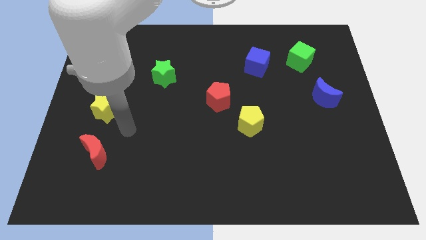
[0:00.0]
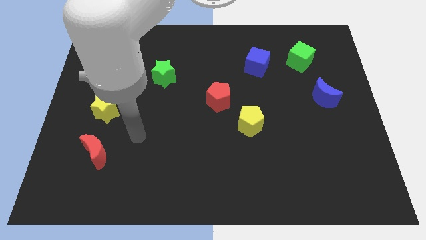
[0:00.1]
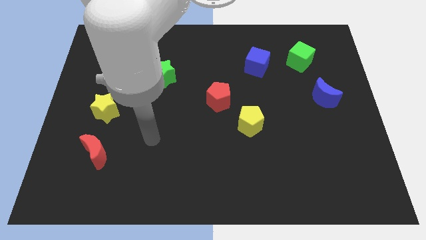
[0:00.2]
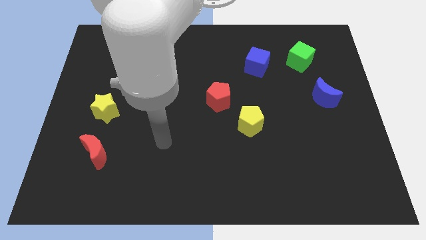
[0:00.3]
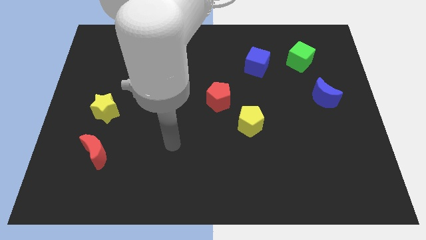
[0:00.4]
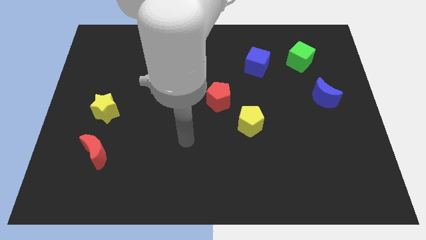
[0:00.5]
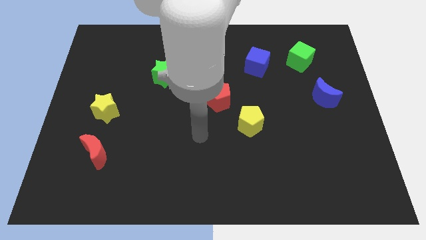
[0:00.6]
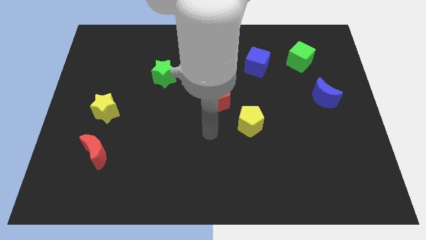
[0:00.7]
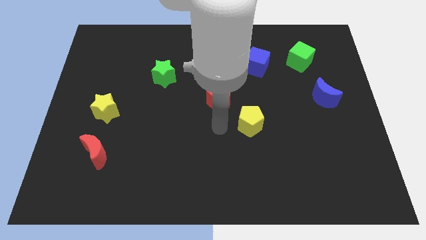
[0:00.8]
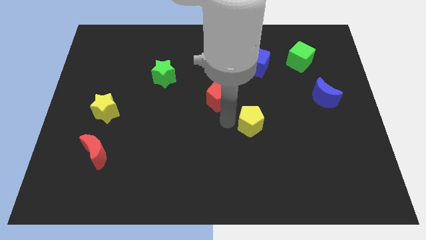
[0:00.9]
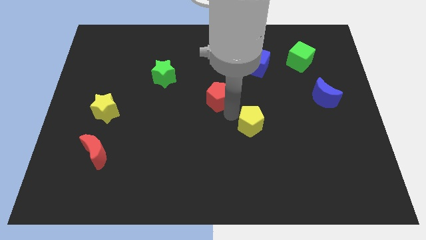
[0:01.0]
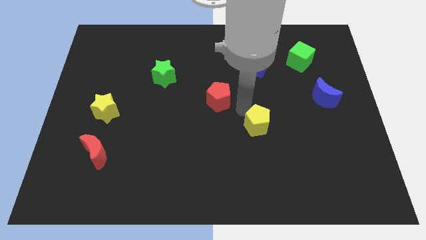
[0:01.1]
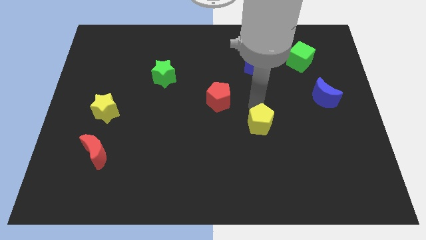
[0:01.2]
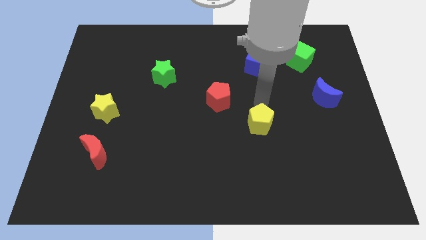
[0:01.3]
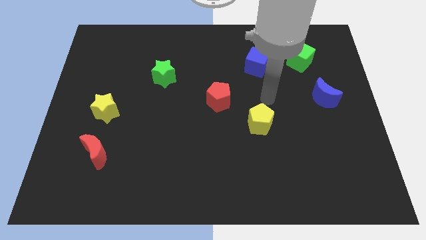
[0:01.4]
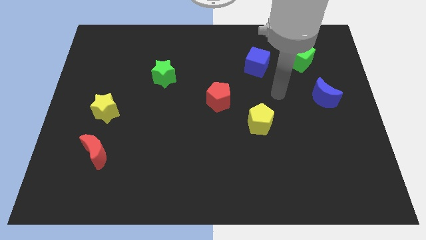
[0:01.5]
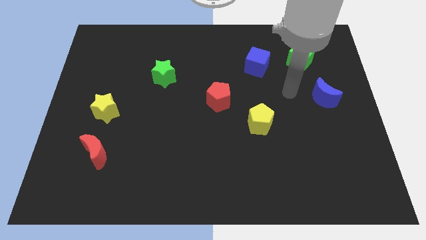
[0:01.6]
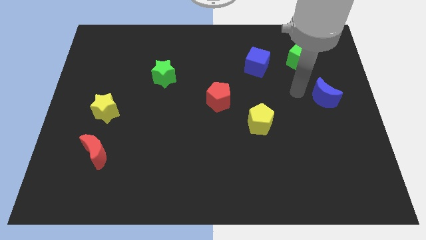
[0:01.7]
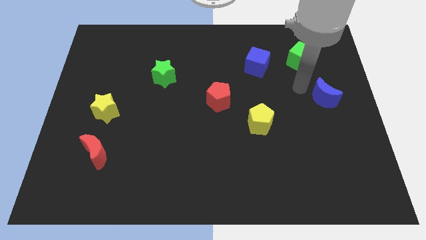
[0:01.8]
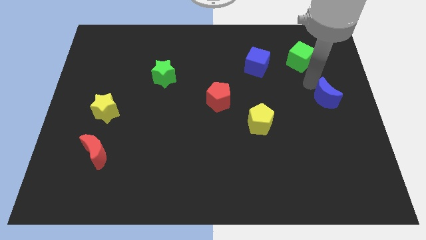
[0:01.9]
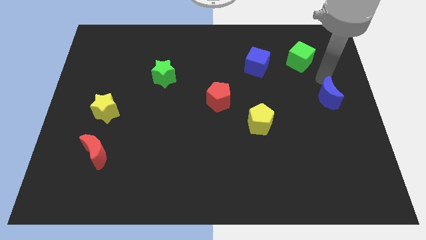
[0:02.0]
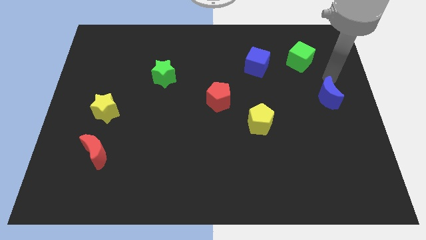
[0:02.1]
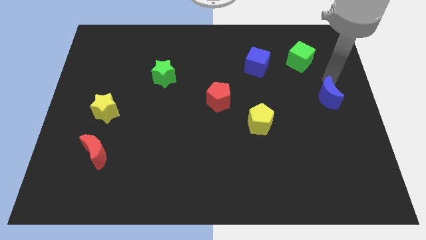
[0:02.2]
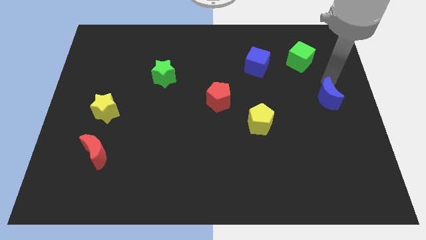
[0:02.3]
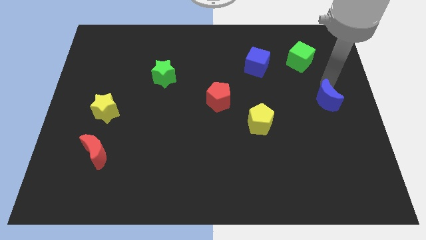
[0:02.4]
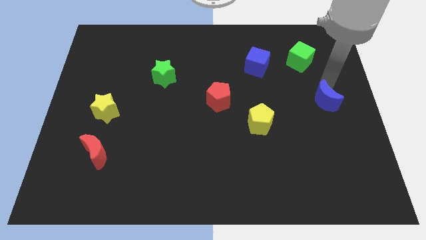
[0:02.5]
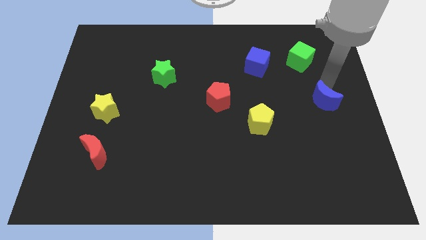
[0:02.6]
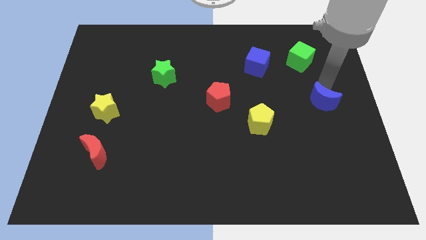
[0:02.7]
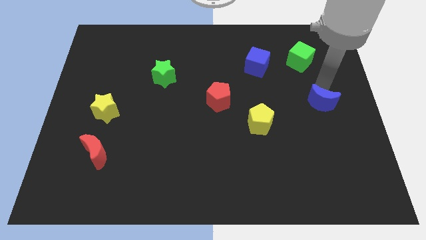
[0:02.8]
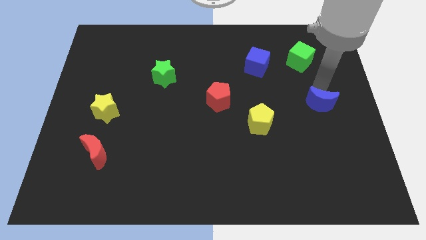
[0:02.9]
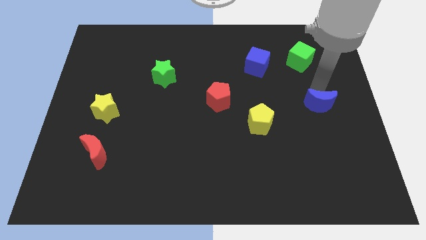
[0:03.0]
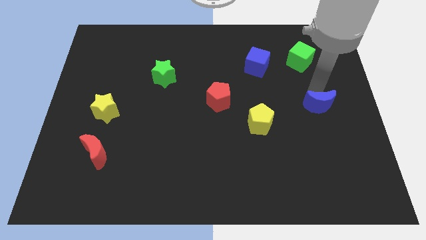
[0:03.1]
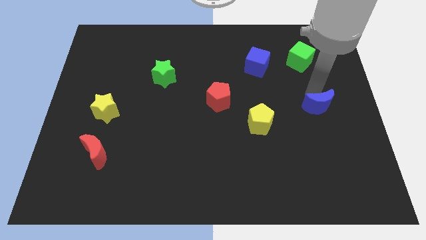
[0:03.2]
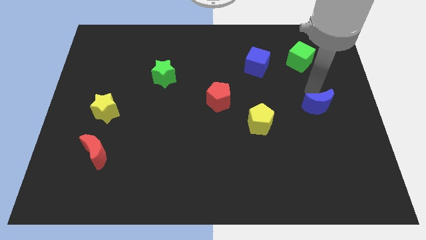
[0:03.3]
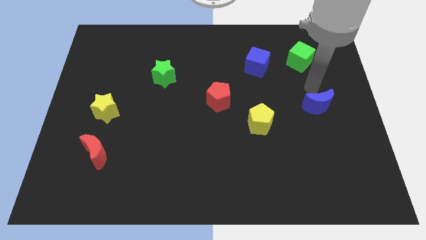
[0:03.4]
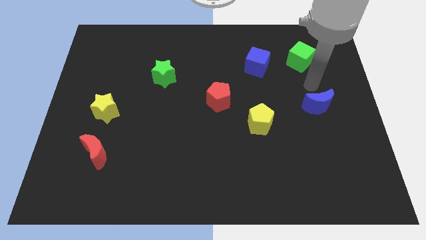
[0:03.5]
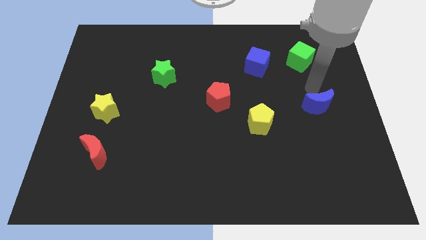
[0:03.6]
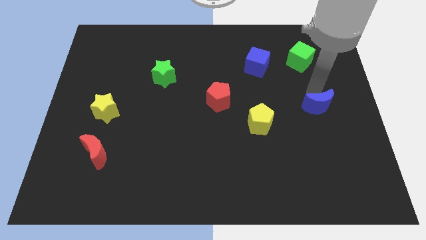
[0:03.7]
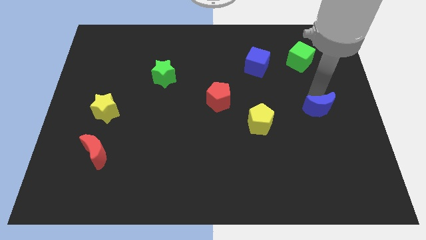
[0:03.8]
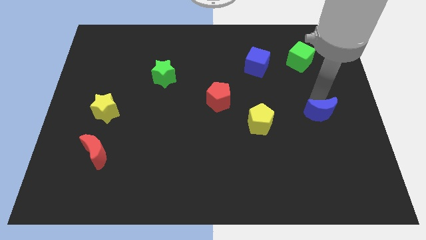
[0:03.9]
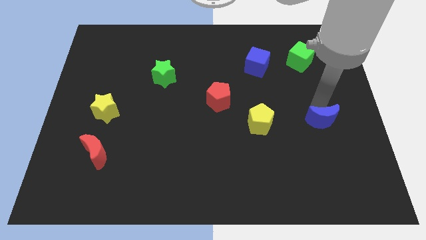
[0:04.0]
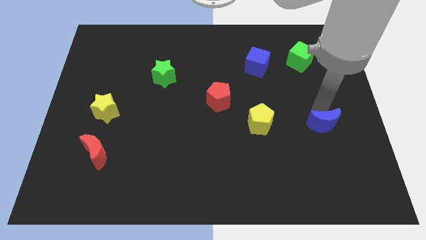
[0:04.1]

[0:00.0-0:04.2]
move the blue moon a little downwards

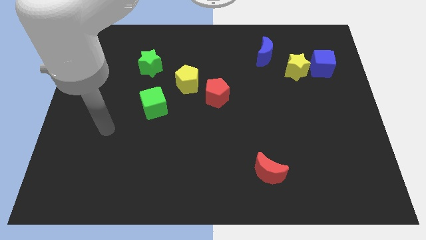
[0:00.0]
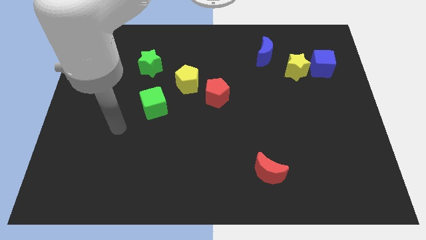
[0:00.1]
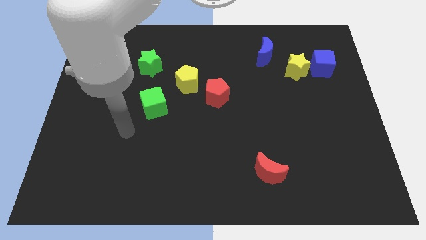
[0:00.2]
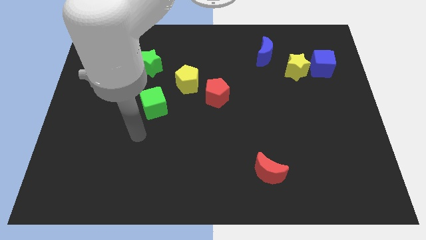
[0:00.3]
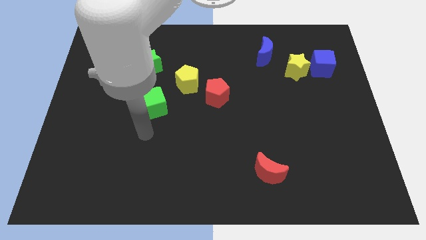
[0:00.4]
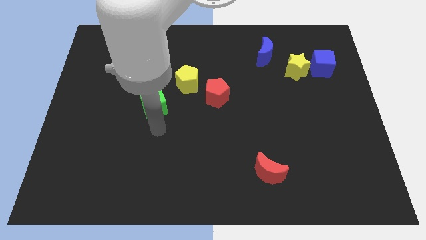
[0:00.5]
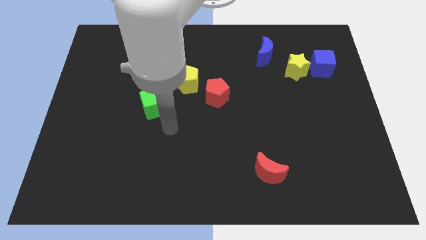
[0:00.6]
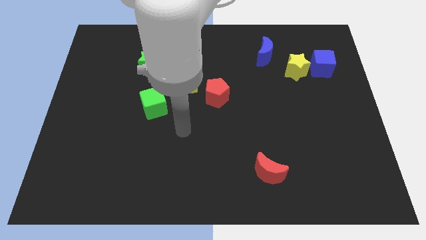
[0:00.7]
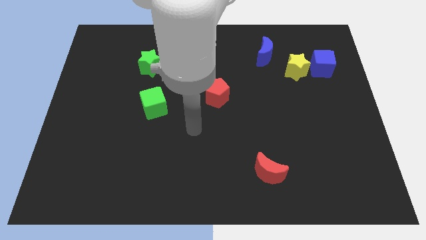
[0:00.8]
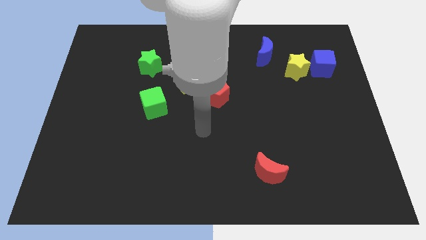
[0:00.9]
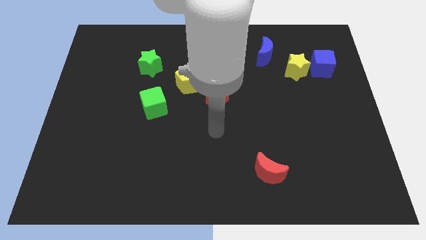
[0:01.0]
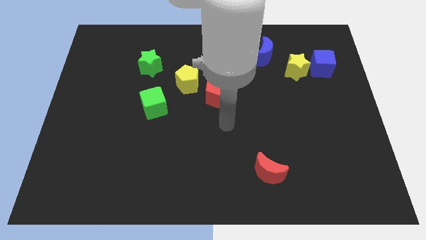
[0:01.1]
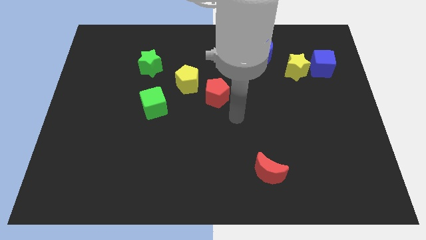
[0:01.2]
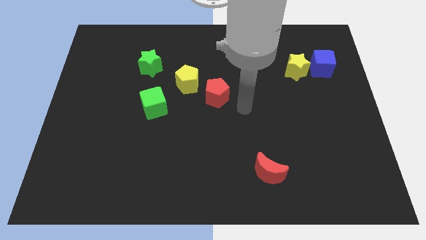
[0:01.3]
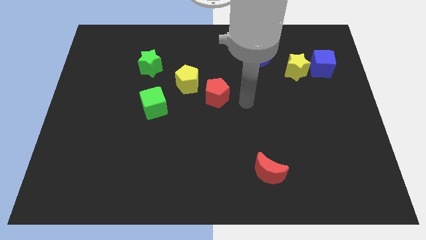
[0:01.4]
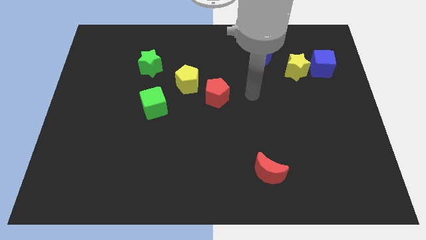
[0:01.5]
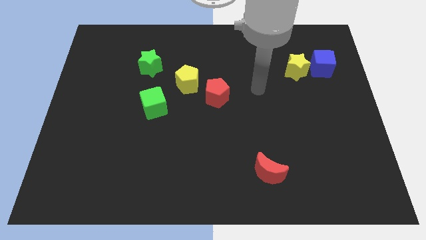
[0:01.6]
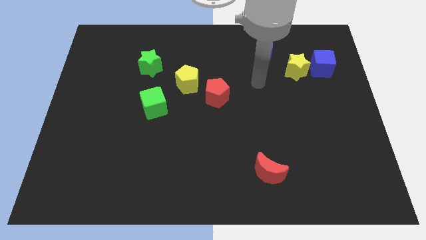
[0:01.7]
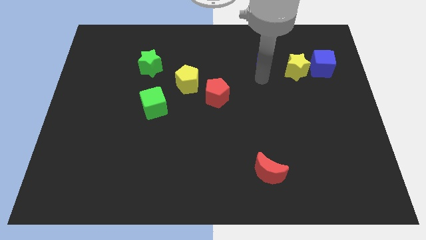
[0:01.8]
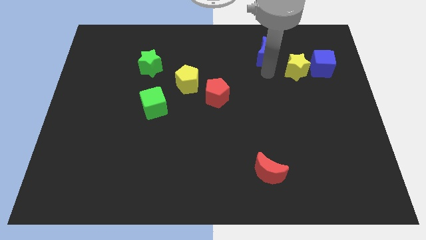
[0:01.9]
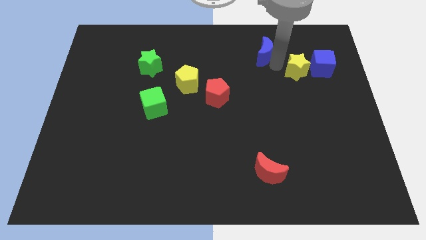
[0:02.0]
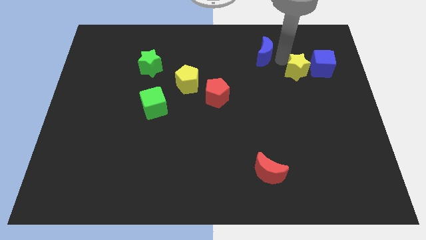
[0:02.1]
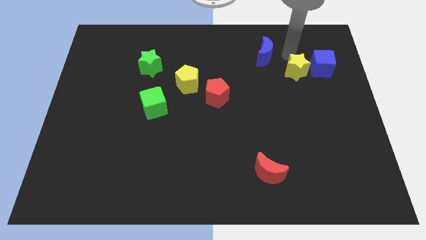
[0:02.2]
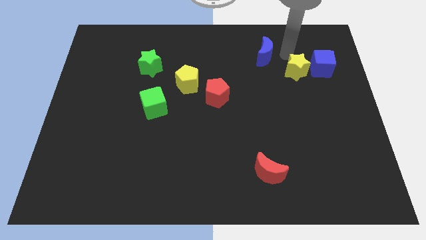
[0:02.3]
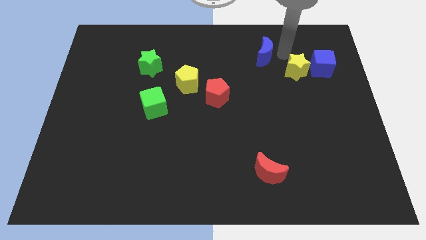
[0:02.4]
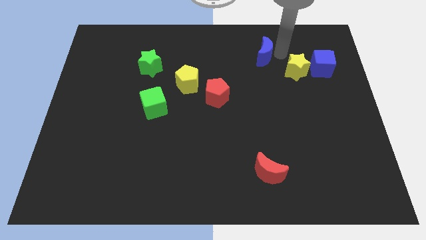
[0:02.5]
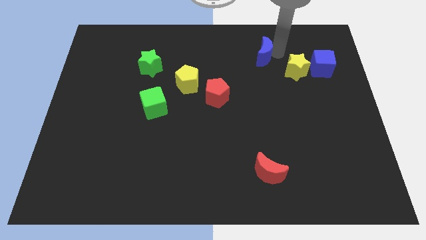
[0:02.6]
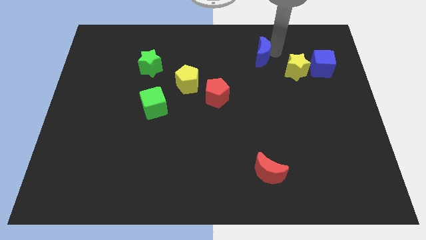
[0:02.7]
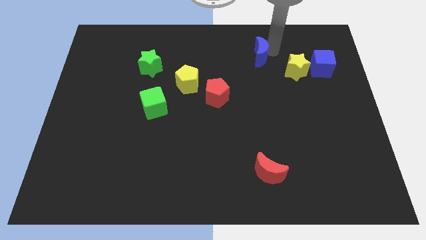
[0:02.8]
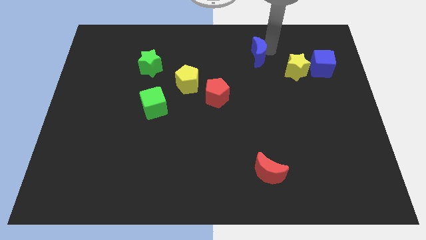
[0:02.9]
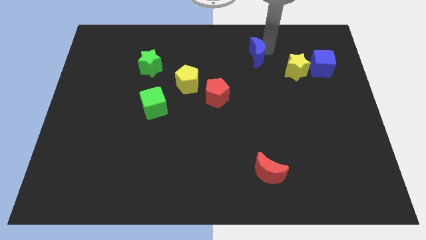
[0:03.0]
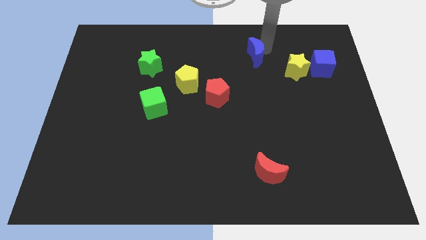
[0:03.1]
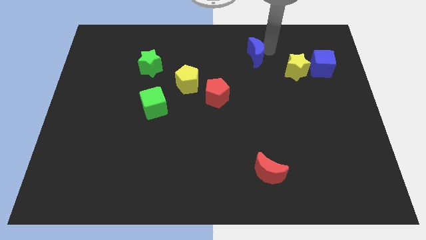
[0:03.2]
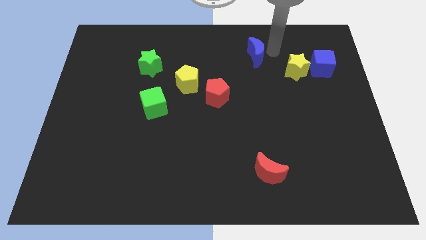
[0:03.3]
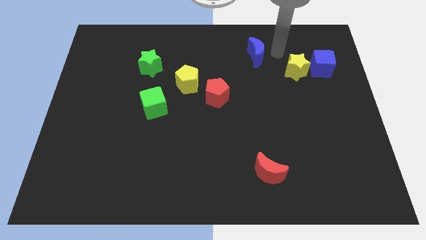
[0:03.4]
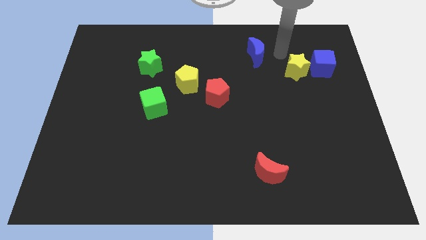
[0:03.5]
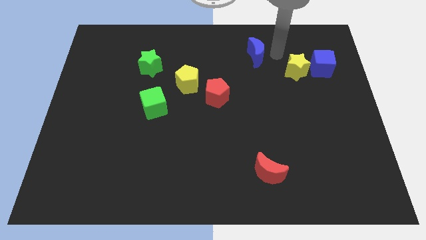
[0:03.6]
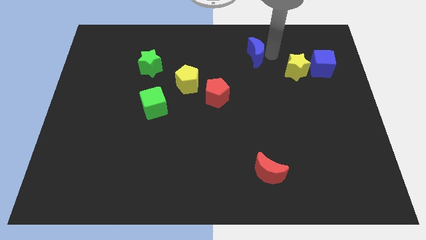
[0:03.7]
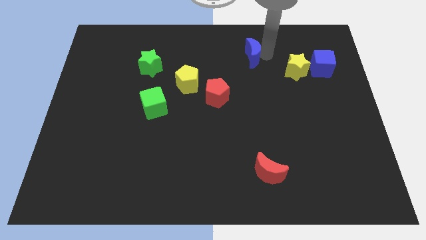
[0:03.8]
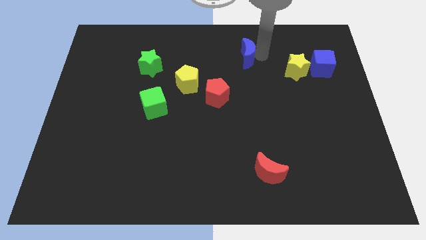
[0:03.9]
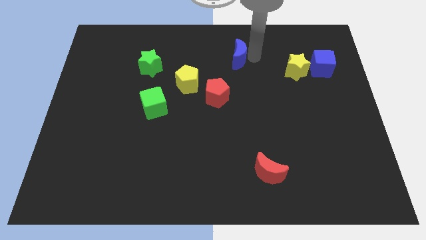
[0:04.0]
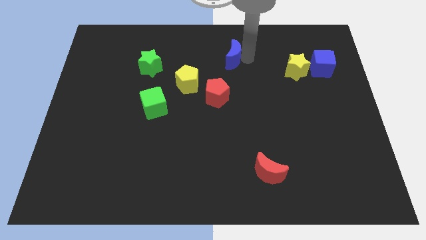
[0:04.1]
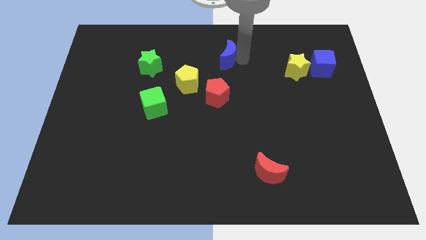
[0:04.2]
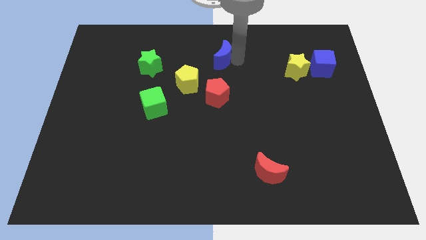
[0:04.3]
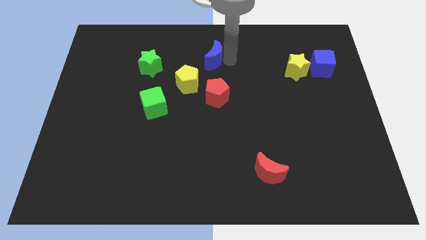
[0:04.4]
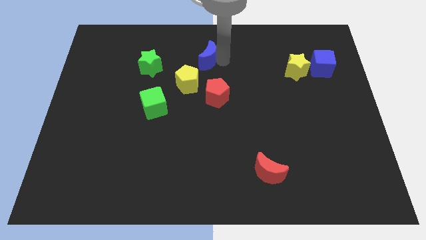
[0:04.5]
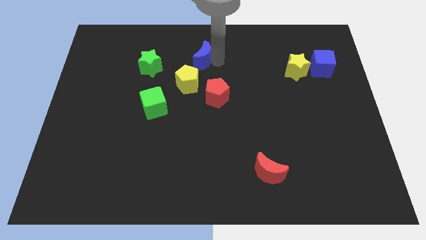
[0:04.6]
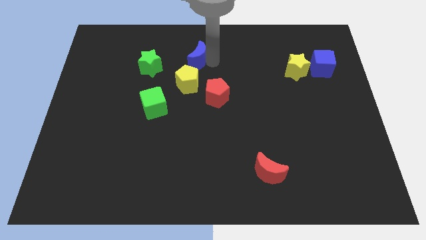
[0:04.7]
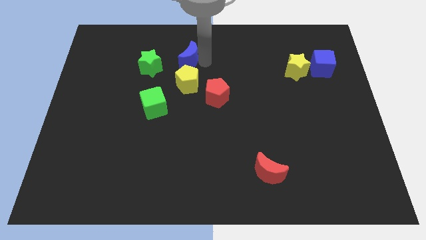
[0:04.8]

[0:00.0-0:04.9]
move the blue moon left
